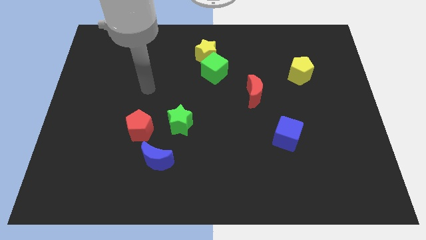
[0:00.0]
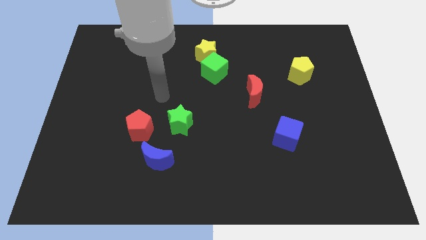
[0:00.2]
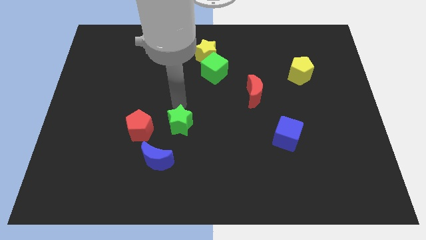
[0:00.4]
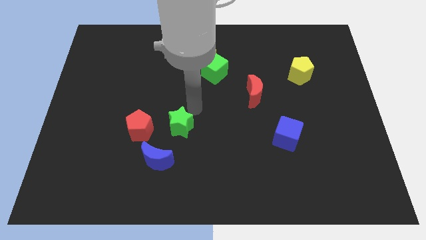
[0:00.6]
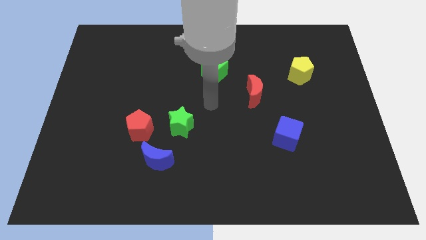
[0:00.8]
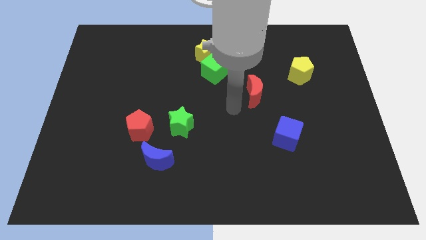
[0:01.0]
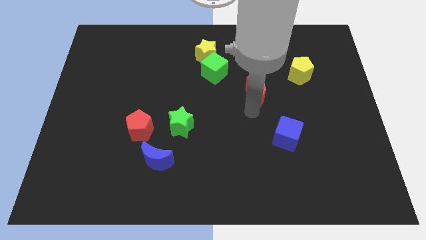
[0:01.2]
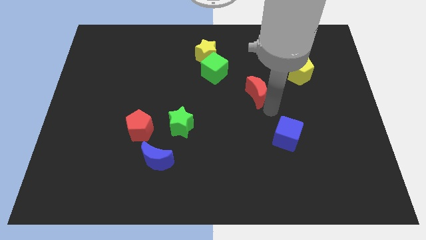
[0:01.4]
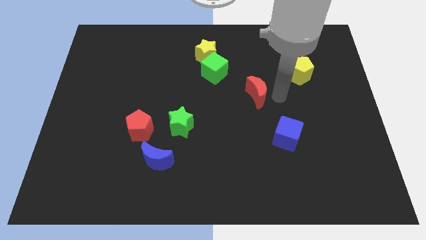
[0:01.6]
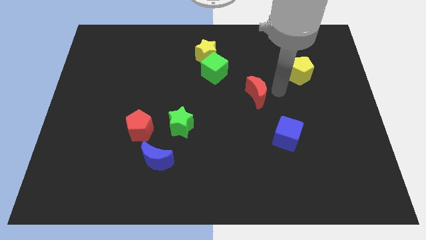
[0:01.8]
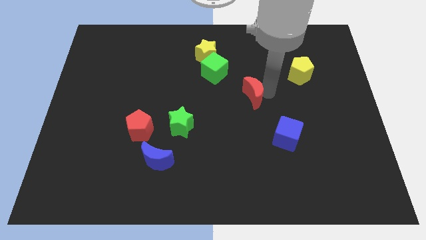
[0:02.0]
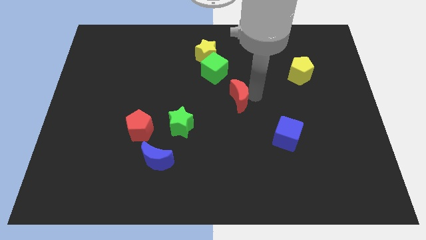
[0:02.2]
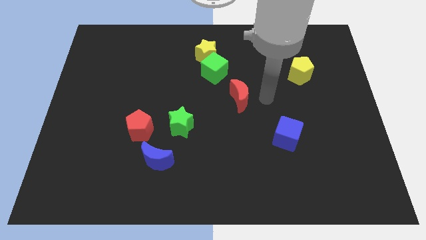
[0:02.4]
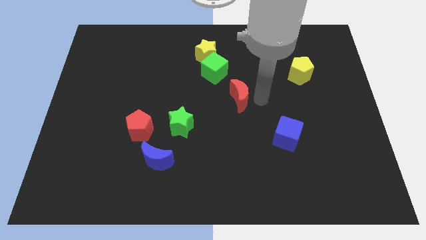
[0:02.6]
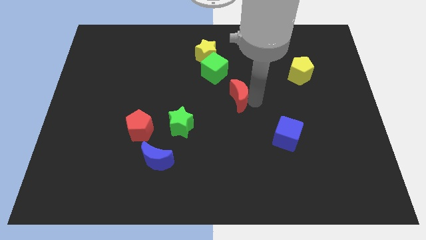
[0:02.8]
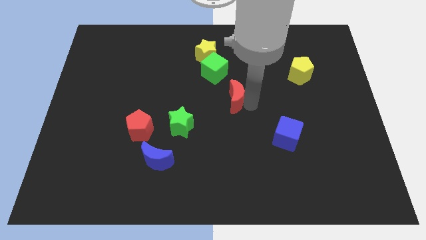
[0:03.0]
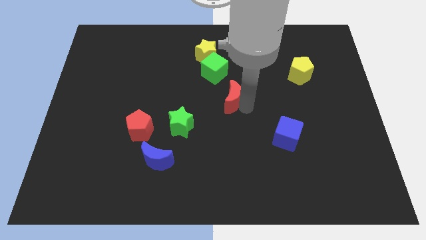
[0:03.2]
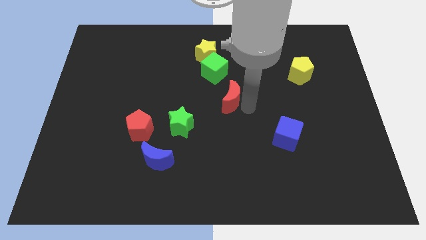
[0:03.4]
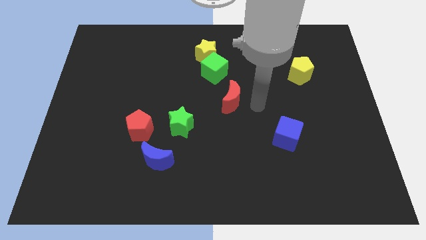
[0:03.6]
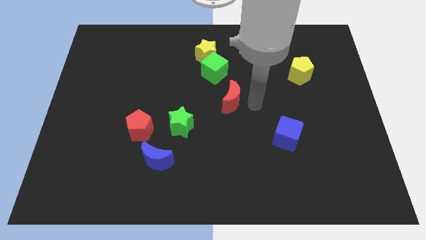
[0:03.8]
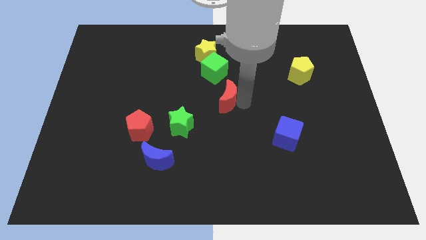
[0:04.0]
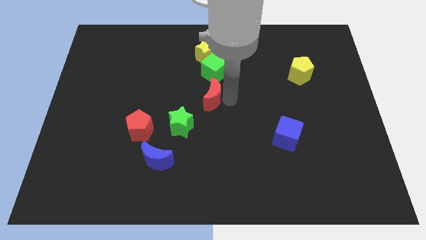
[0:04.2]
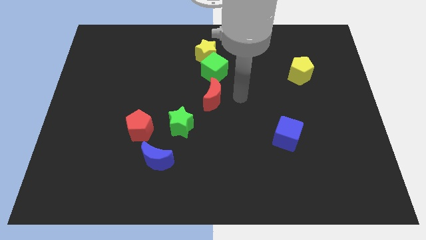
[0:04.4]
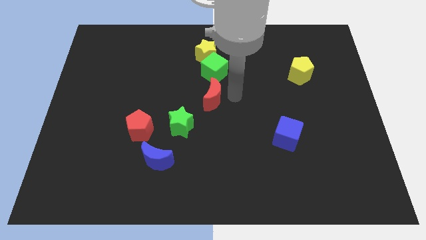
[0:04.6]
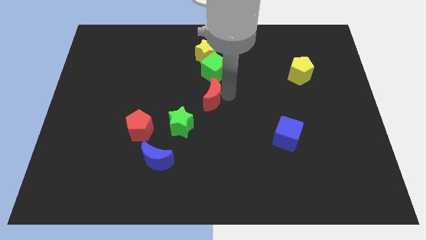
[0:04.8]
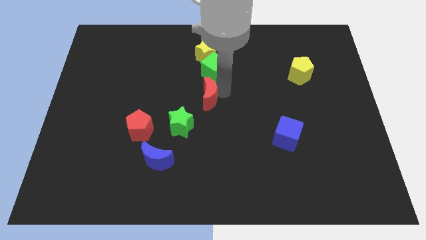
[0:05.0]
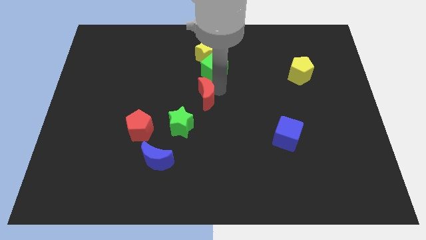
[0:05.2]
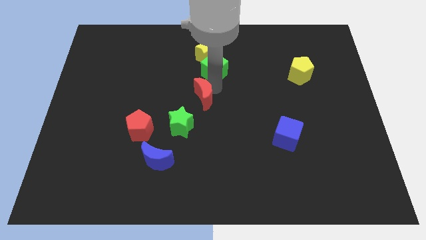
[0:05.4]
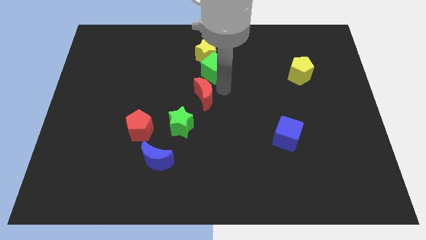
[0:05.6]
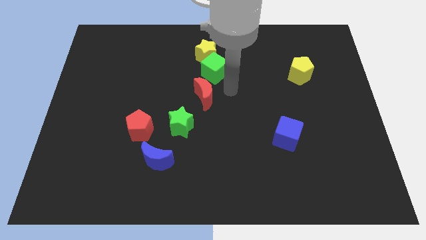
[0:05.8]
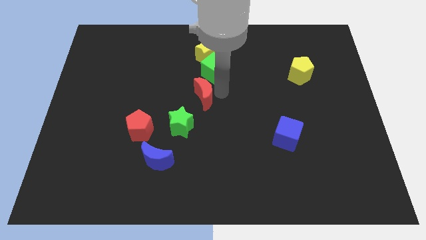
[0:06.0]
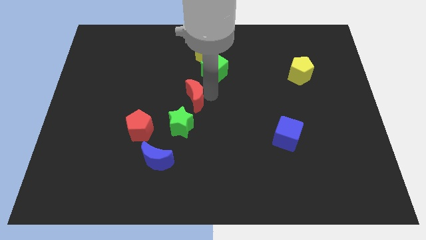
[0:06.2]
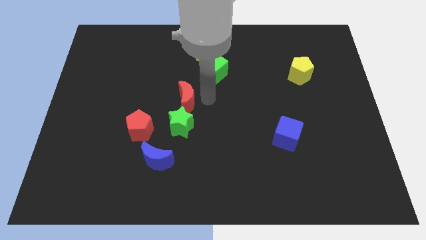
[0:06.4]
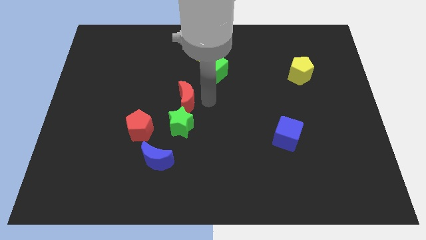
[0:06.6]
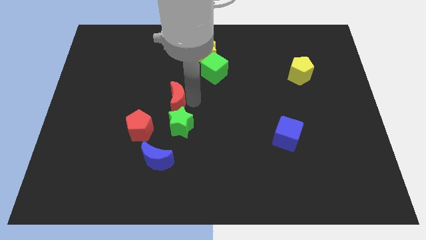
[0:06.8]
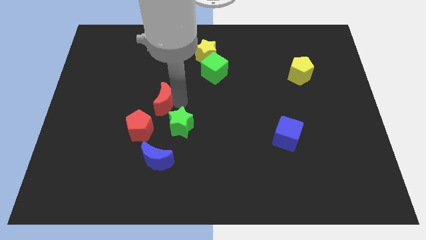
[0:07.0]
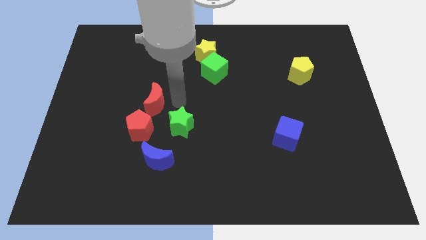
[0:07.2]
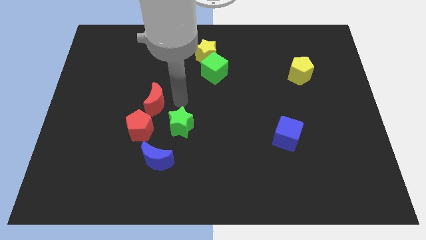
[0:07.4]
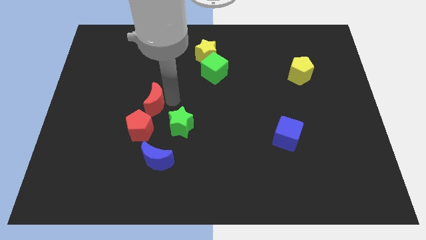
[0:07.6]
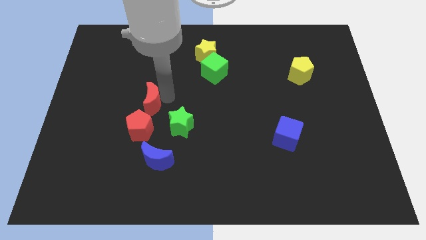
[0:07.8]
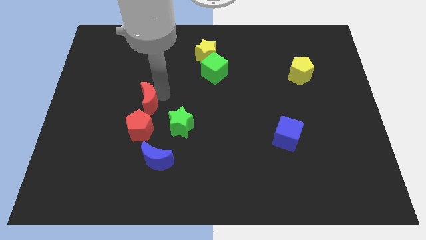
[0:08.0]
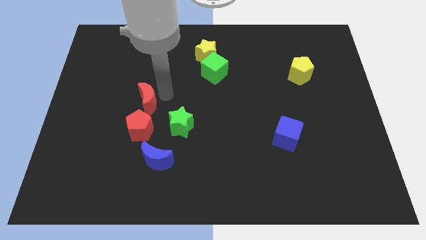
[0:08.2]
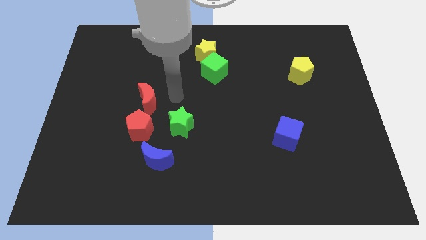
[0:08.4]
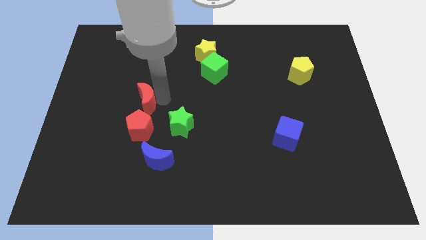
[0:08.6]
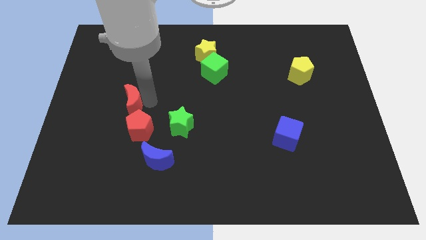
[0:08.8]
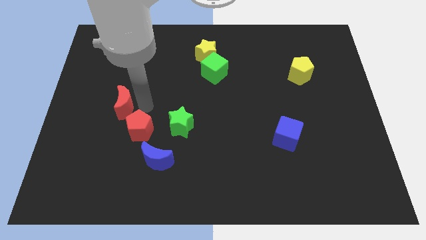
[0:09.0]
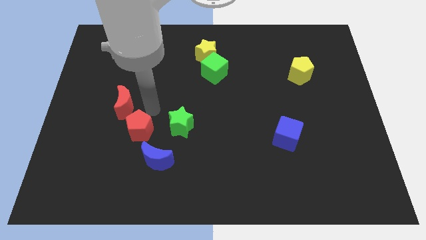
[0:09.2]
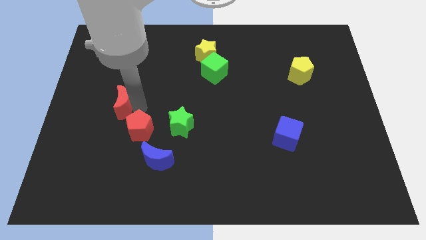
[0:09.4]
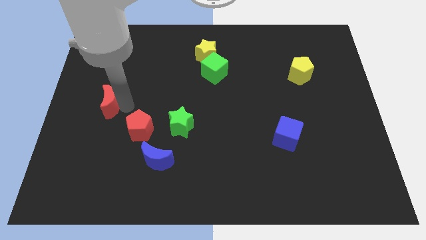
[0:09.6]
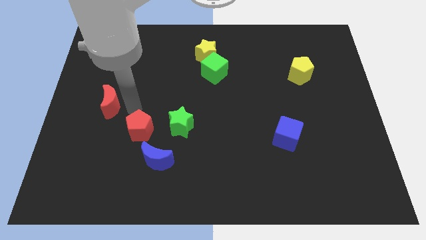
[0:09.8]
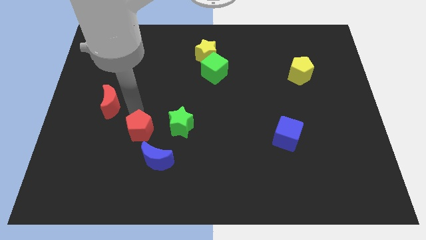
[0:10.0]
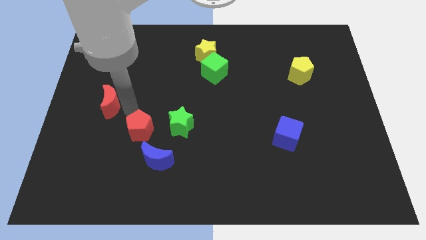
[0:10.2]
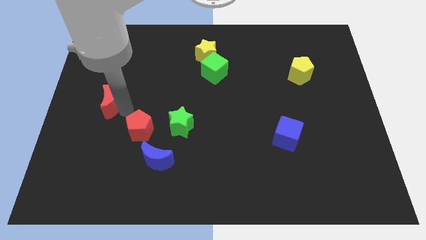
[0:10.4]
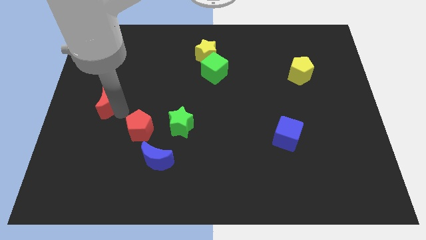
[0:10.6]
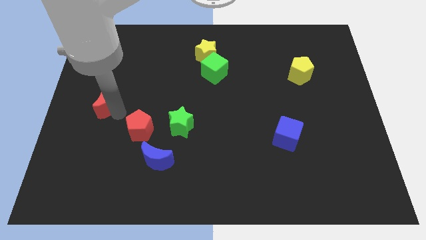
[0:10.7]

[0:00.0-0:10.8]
push the red moon to the left side

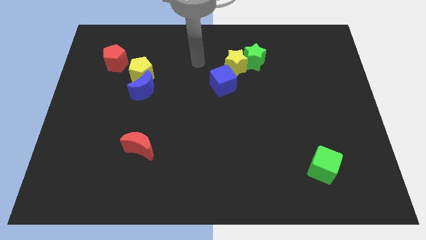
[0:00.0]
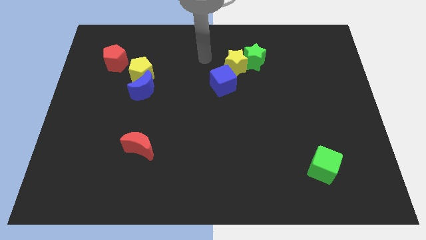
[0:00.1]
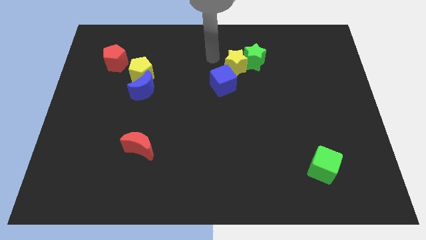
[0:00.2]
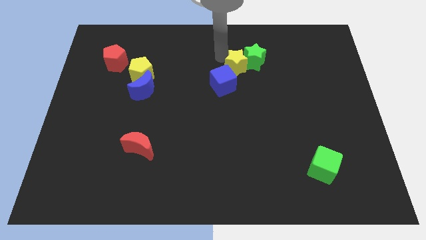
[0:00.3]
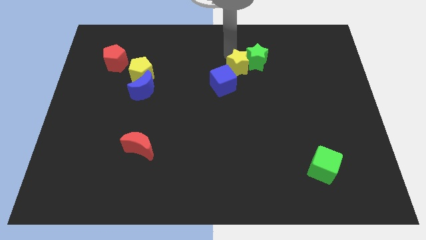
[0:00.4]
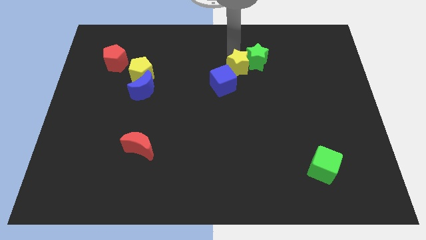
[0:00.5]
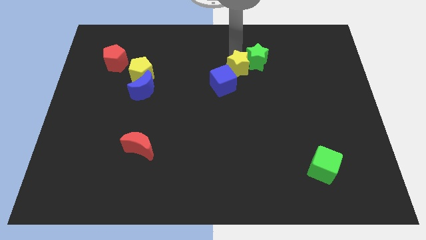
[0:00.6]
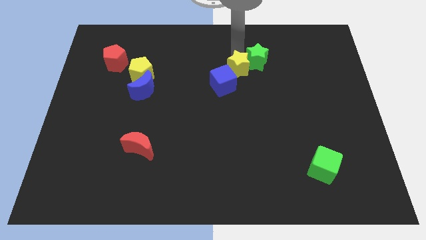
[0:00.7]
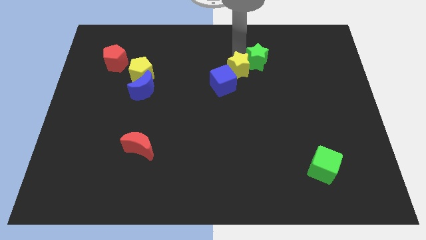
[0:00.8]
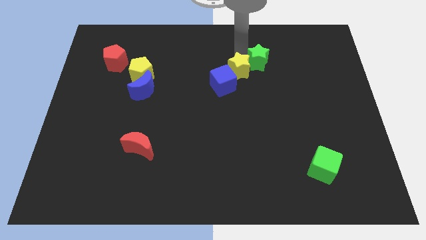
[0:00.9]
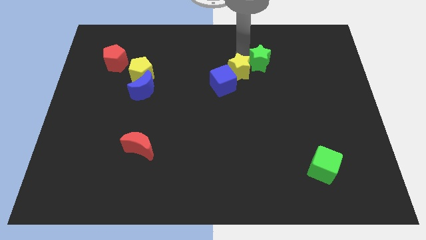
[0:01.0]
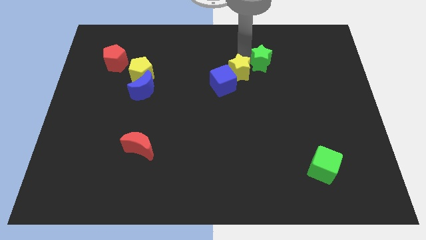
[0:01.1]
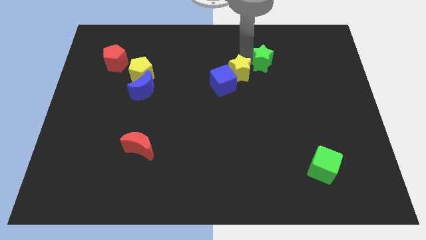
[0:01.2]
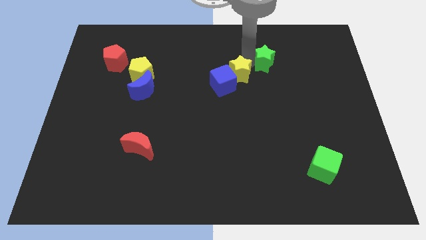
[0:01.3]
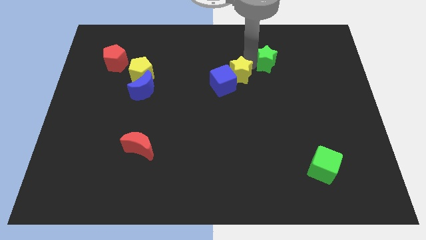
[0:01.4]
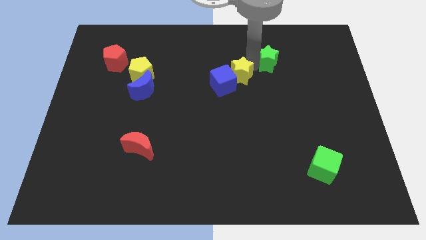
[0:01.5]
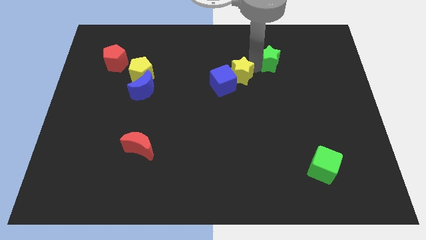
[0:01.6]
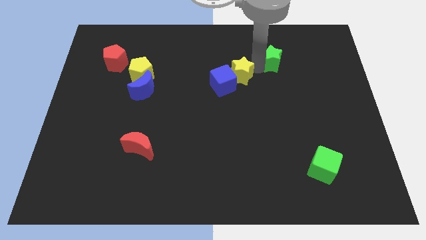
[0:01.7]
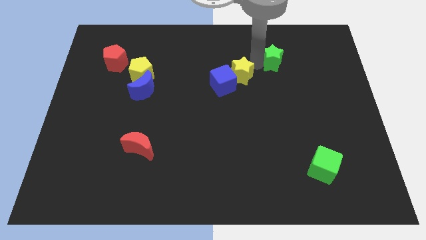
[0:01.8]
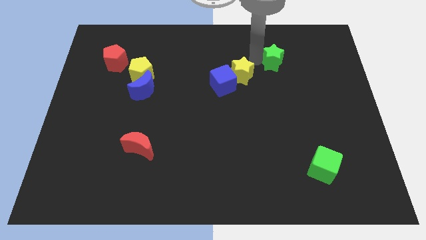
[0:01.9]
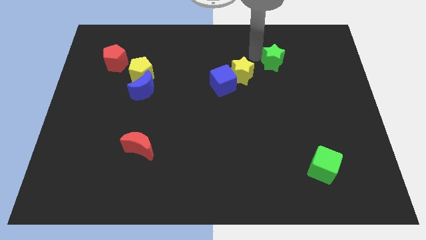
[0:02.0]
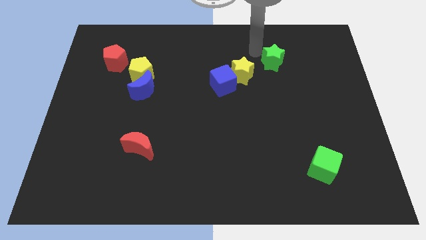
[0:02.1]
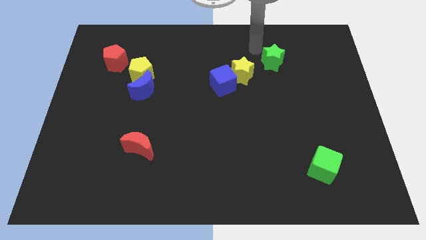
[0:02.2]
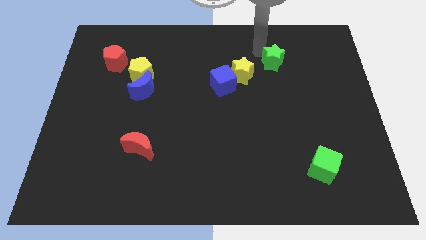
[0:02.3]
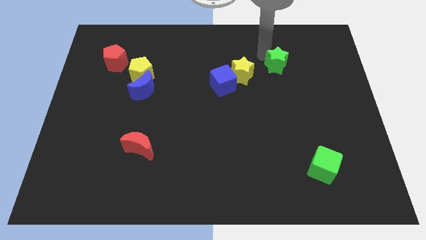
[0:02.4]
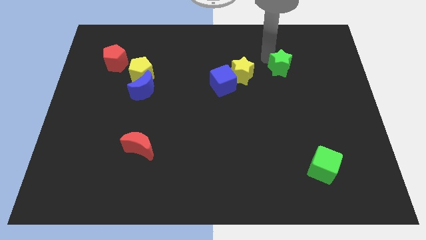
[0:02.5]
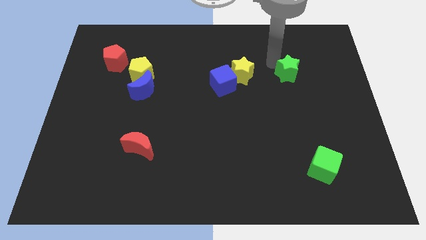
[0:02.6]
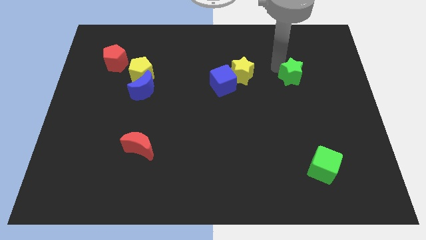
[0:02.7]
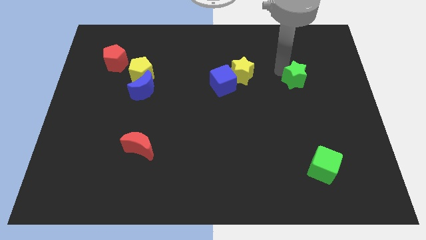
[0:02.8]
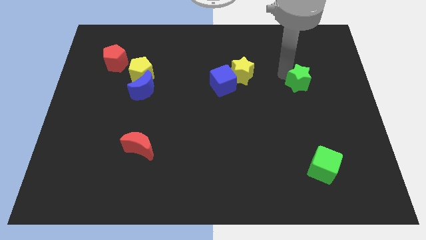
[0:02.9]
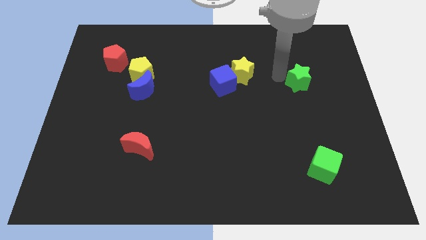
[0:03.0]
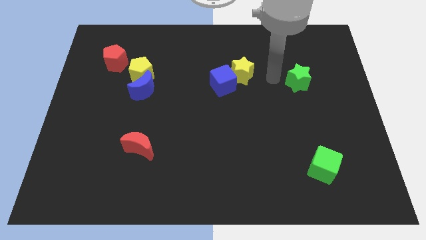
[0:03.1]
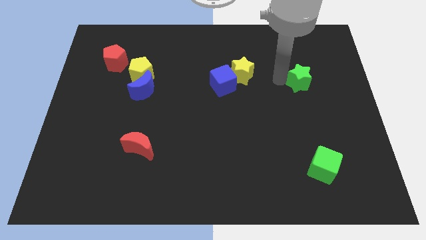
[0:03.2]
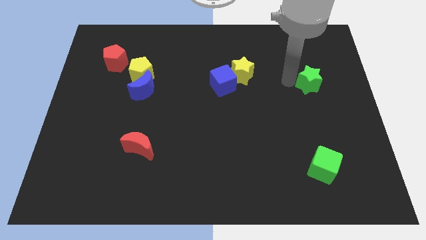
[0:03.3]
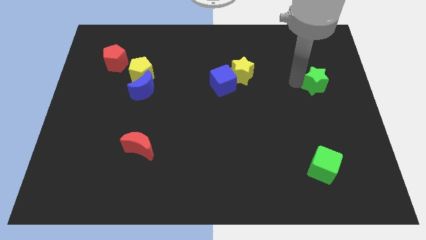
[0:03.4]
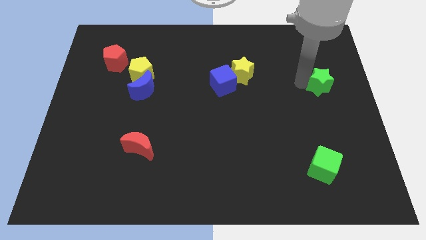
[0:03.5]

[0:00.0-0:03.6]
slide the green star to the center right
